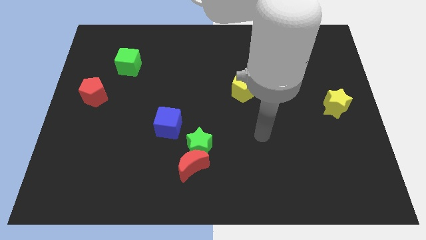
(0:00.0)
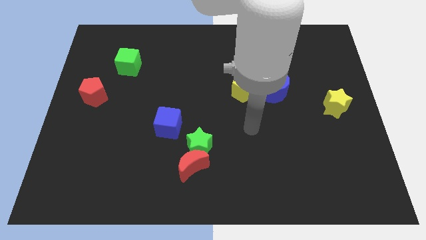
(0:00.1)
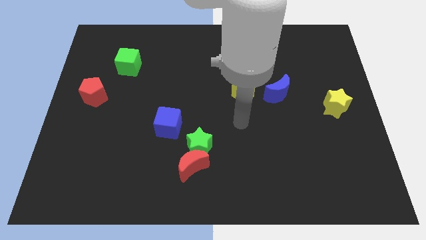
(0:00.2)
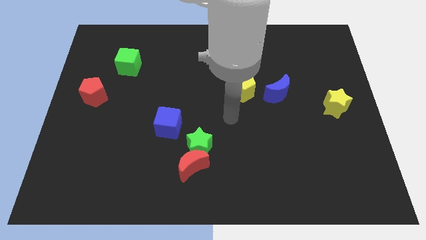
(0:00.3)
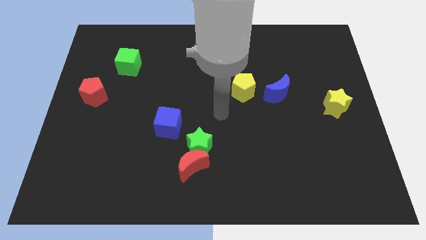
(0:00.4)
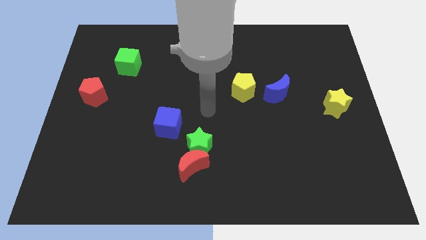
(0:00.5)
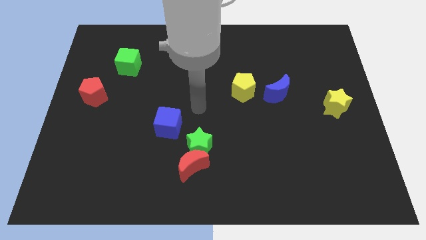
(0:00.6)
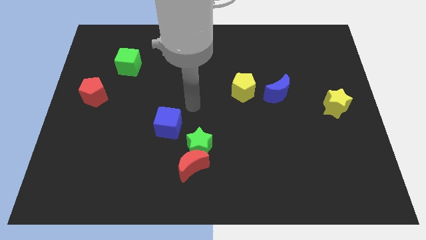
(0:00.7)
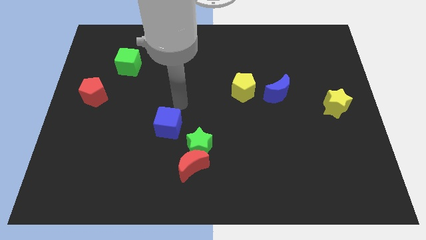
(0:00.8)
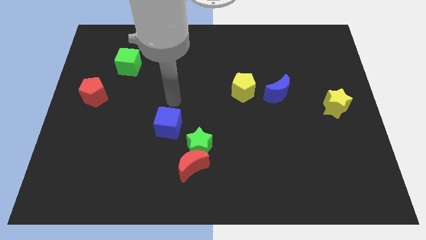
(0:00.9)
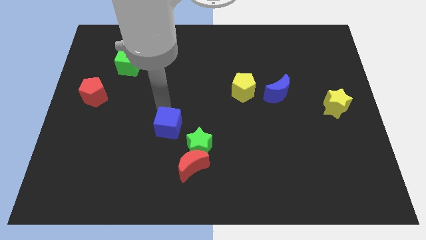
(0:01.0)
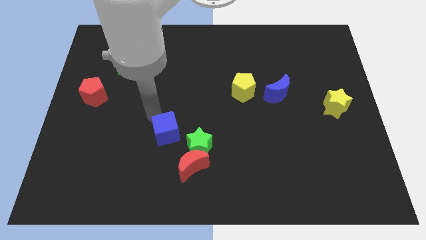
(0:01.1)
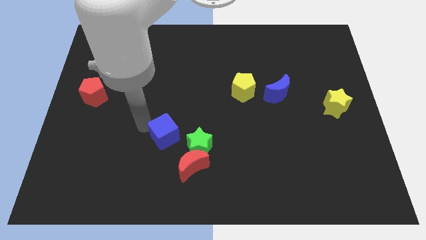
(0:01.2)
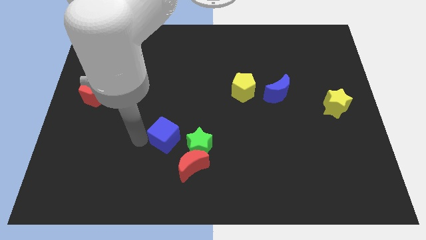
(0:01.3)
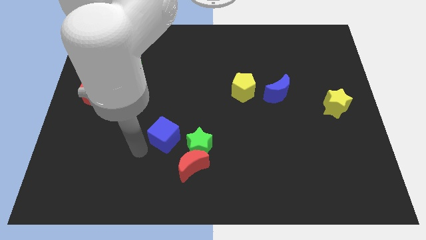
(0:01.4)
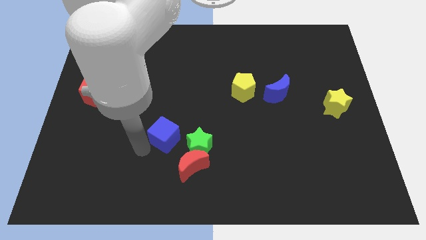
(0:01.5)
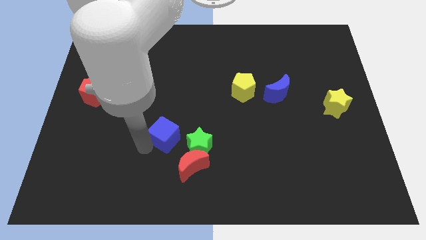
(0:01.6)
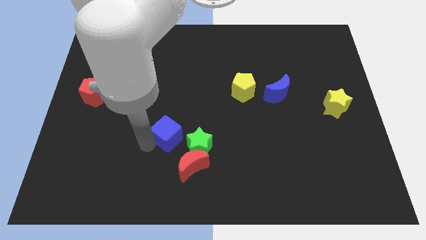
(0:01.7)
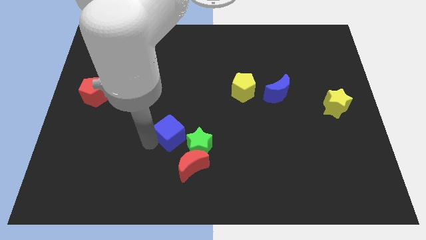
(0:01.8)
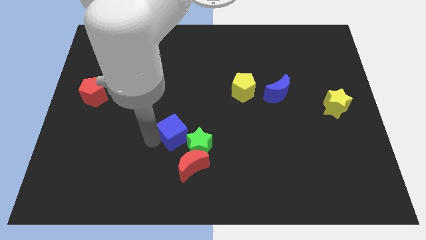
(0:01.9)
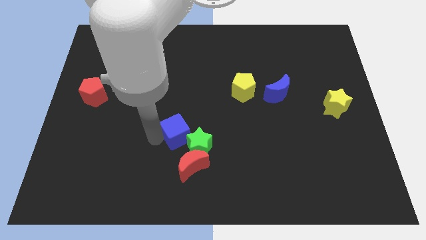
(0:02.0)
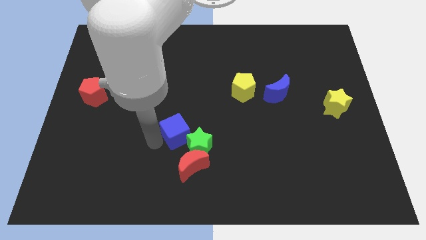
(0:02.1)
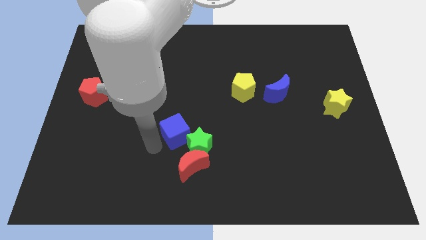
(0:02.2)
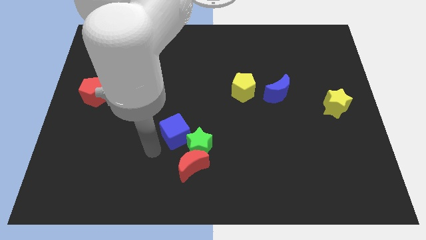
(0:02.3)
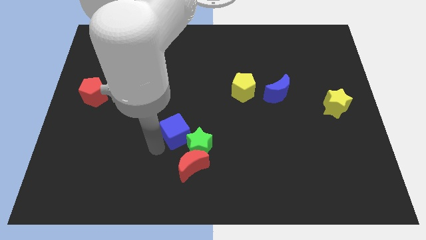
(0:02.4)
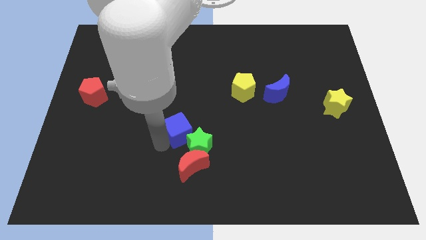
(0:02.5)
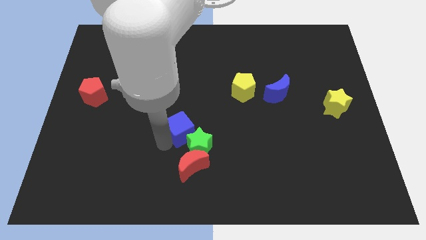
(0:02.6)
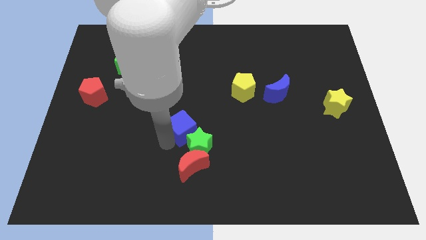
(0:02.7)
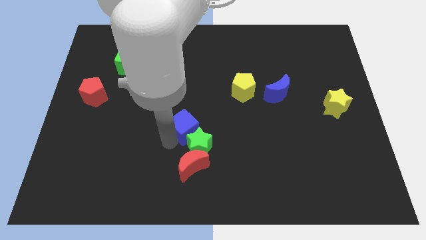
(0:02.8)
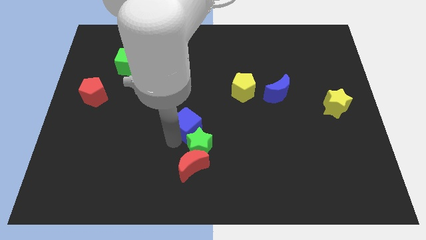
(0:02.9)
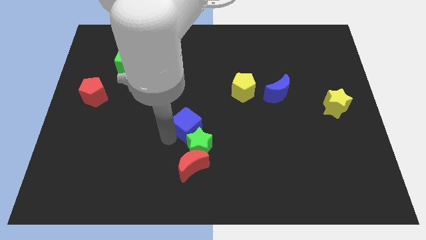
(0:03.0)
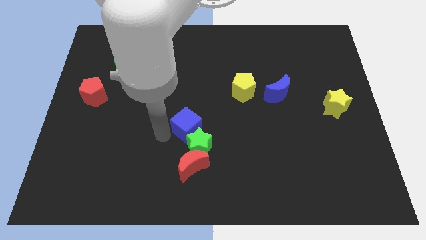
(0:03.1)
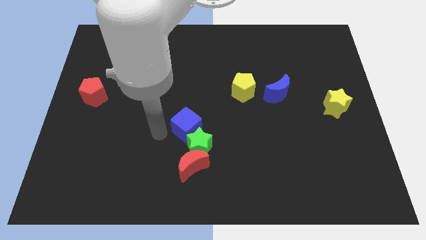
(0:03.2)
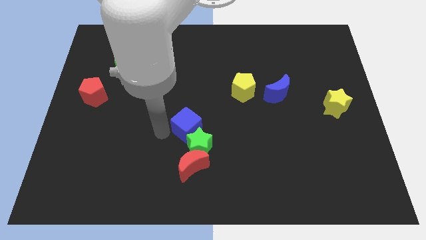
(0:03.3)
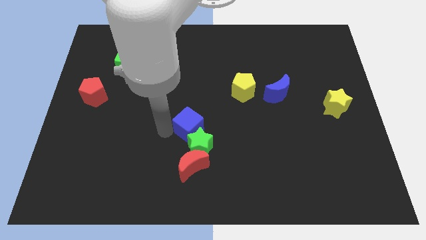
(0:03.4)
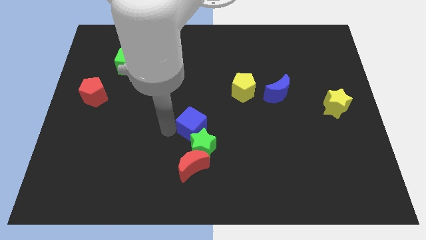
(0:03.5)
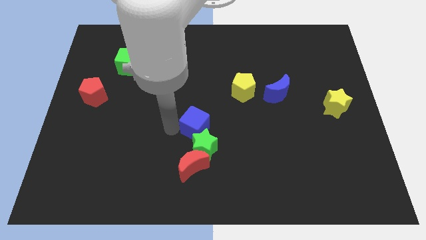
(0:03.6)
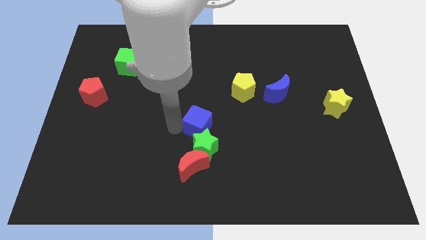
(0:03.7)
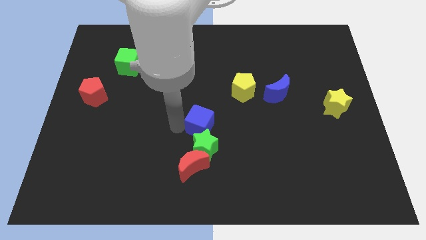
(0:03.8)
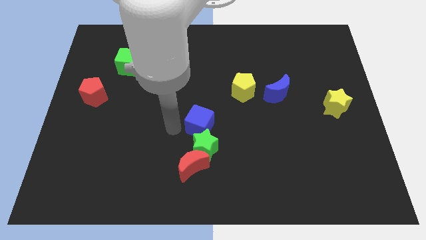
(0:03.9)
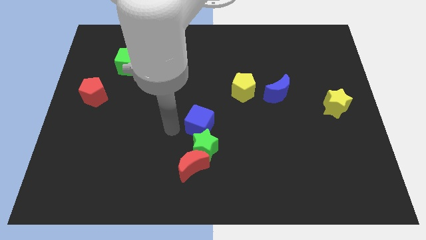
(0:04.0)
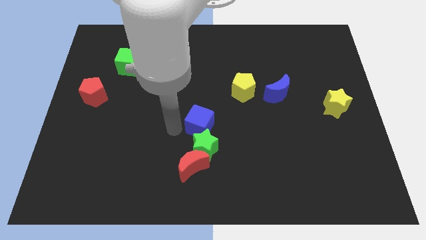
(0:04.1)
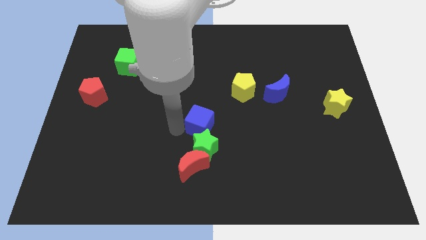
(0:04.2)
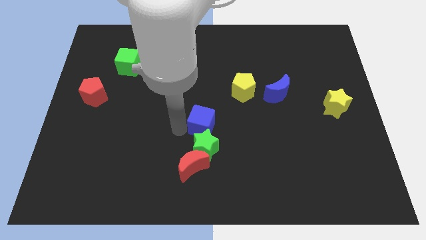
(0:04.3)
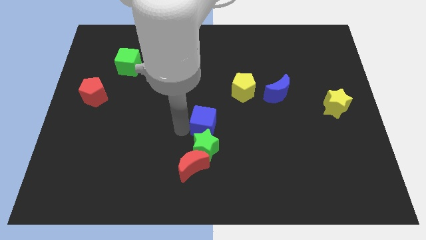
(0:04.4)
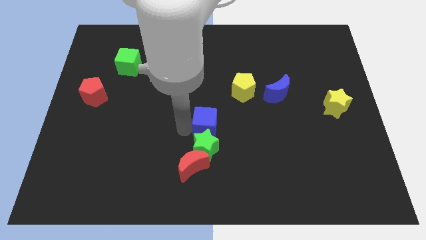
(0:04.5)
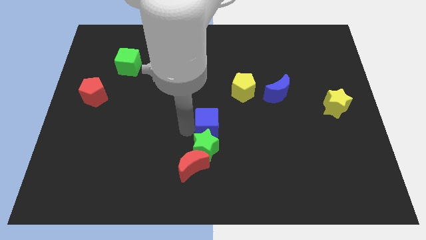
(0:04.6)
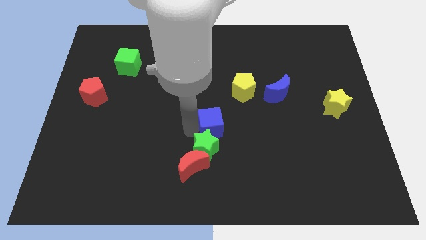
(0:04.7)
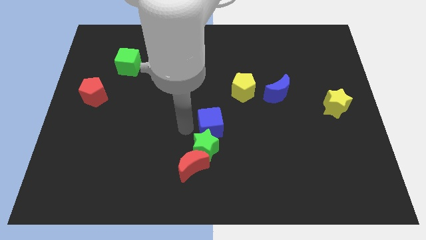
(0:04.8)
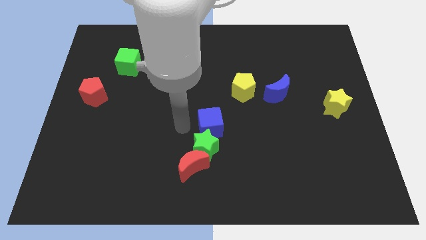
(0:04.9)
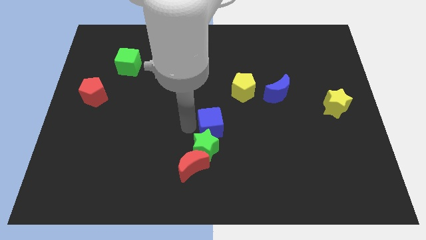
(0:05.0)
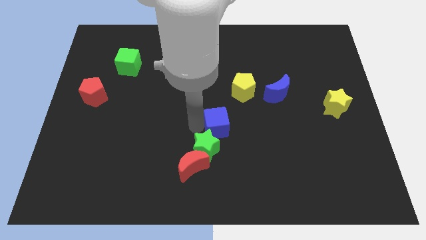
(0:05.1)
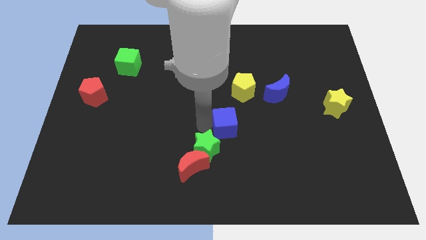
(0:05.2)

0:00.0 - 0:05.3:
move the blue cube below the yellow pentagon

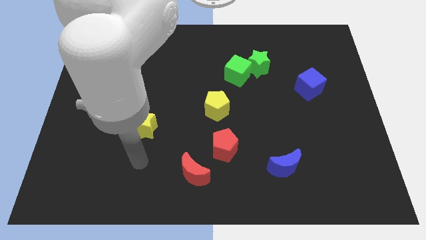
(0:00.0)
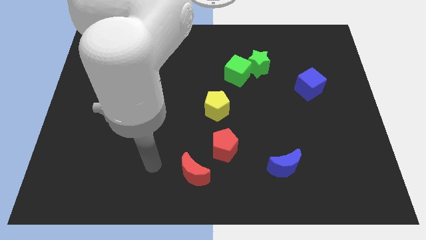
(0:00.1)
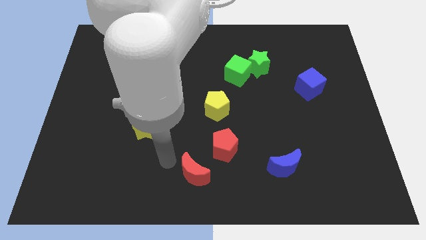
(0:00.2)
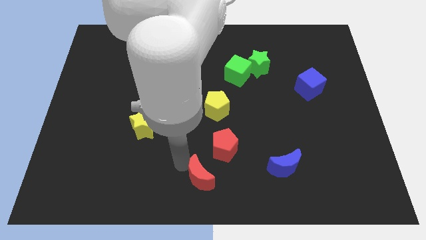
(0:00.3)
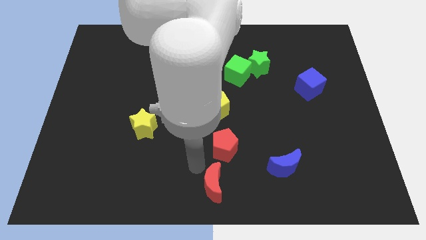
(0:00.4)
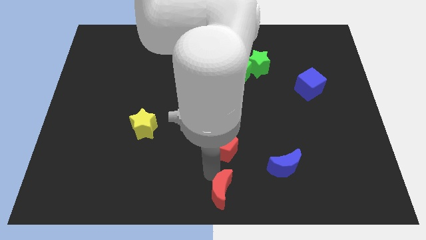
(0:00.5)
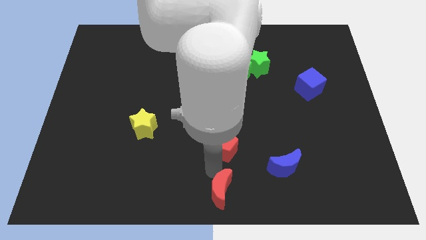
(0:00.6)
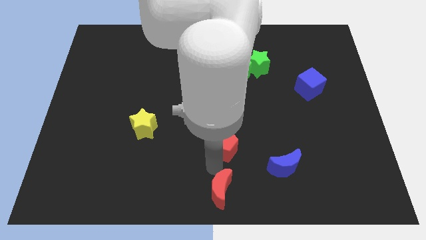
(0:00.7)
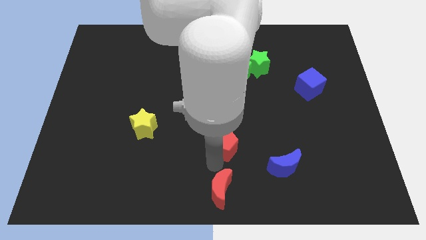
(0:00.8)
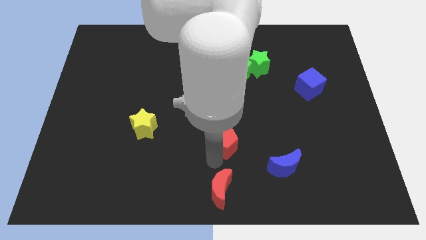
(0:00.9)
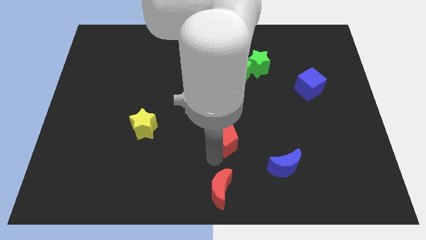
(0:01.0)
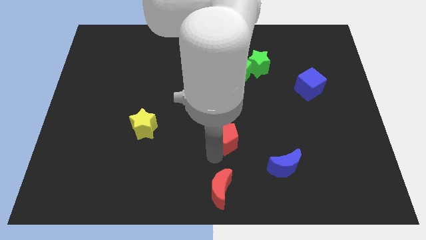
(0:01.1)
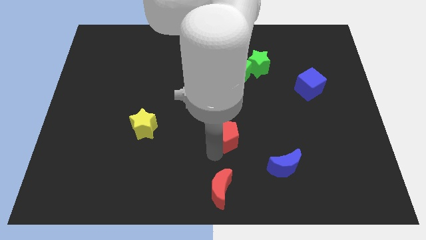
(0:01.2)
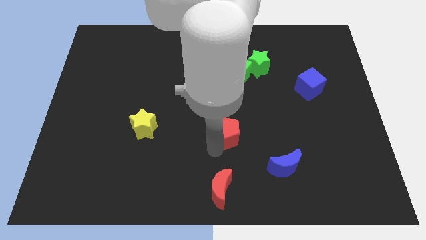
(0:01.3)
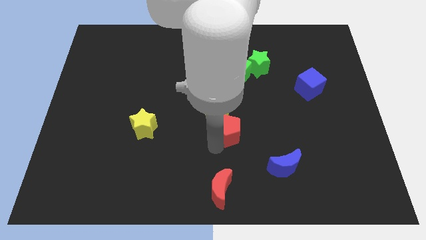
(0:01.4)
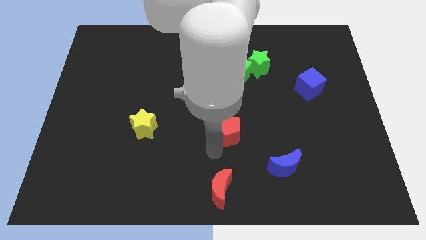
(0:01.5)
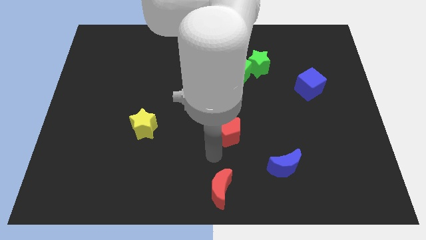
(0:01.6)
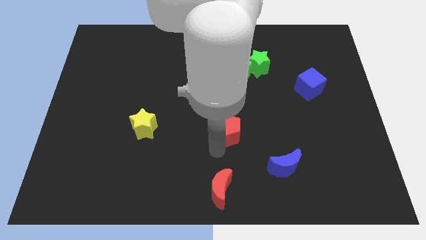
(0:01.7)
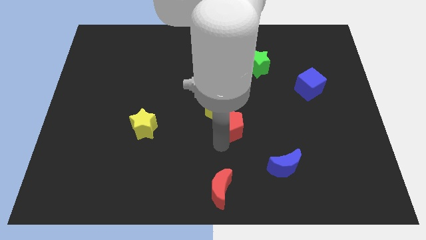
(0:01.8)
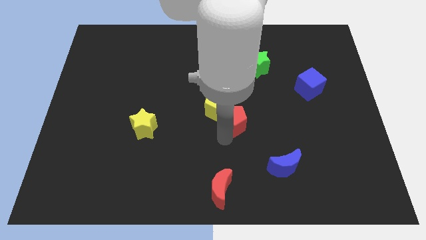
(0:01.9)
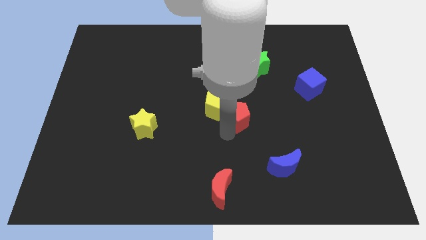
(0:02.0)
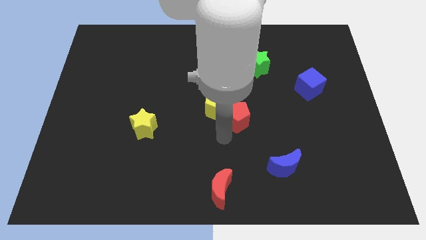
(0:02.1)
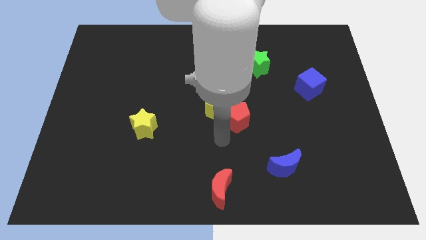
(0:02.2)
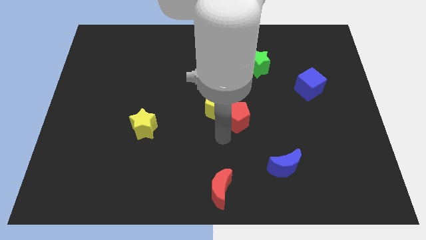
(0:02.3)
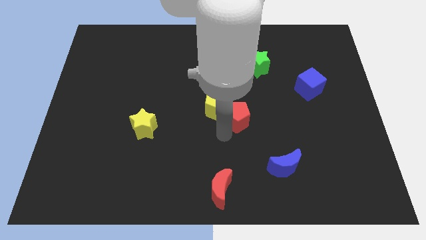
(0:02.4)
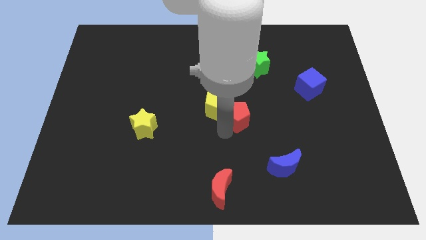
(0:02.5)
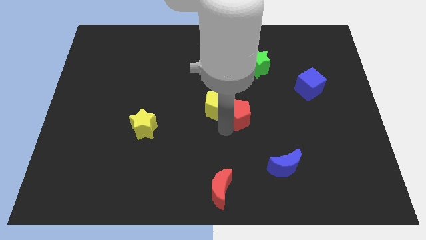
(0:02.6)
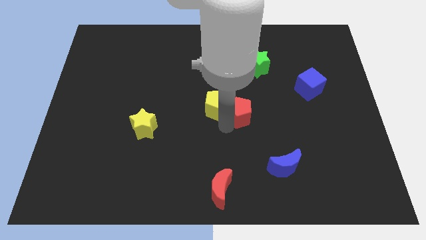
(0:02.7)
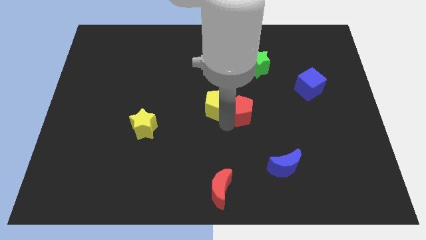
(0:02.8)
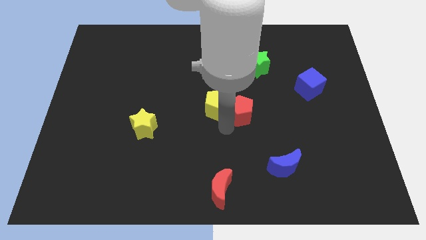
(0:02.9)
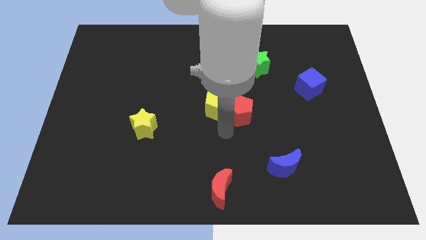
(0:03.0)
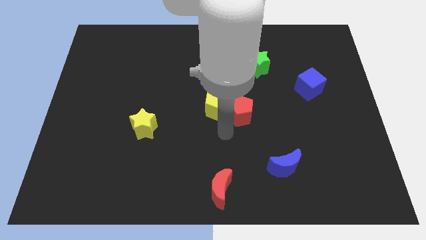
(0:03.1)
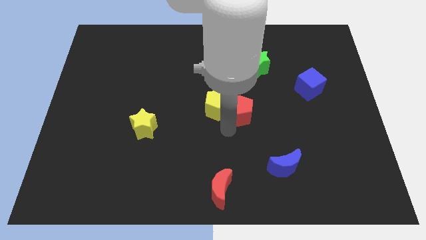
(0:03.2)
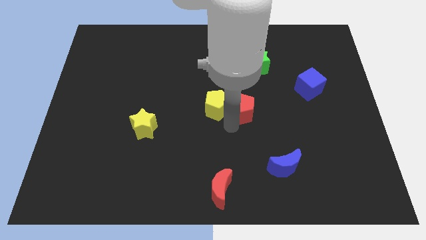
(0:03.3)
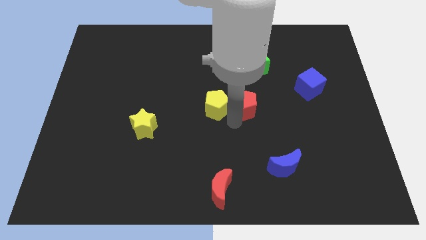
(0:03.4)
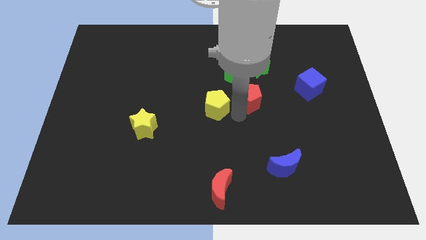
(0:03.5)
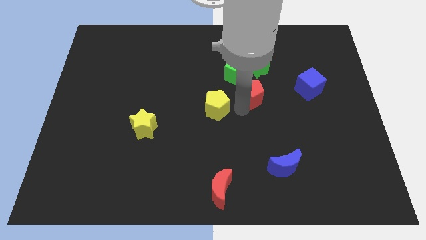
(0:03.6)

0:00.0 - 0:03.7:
push the red pentagon to the left side of the blue cube
